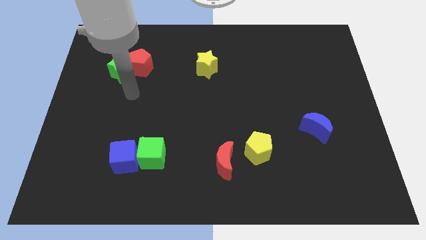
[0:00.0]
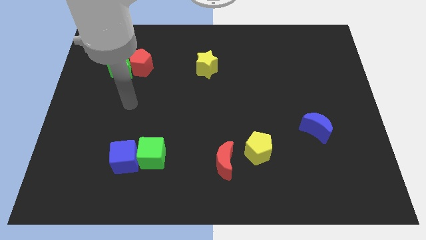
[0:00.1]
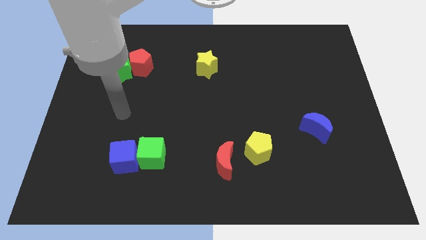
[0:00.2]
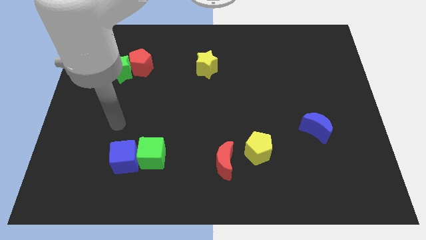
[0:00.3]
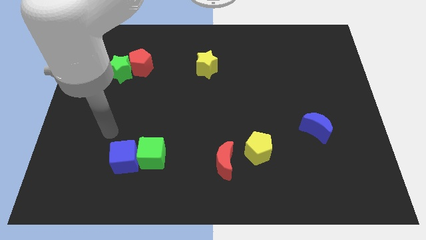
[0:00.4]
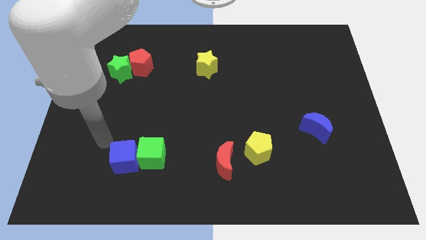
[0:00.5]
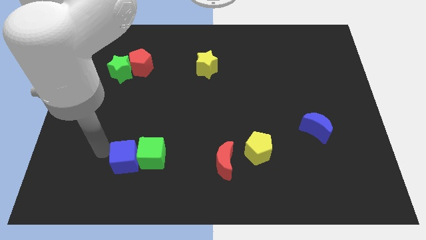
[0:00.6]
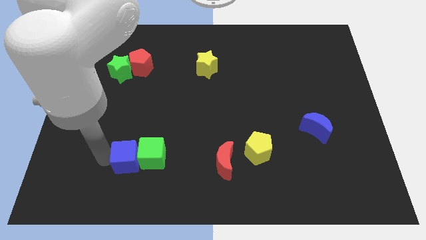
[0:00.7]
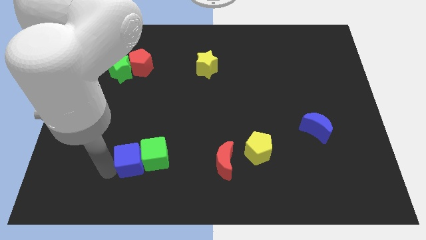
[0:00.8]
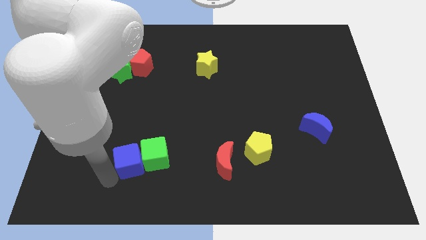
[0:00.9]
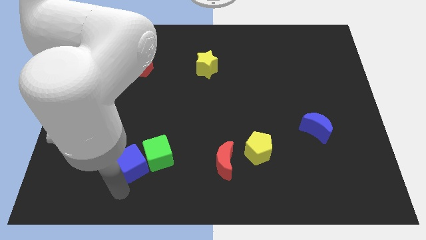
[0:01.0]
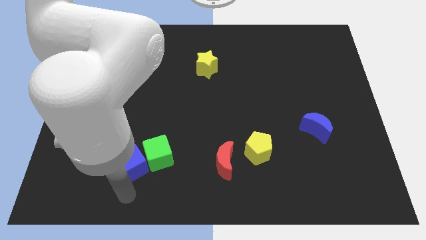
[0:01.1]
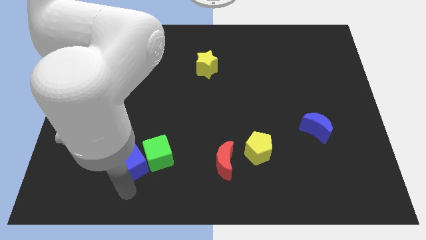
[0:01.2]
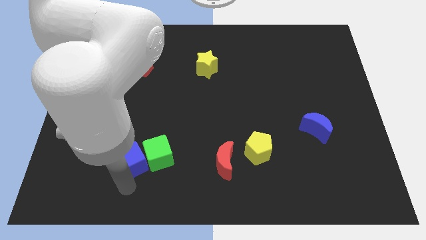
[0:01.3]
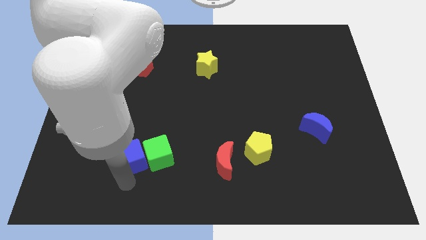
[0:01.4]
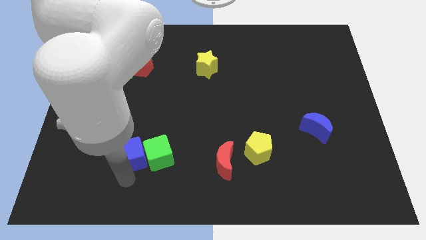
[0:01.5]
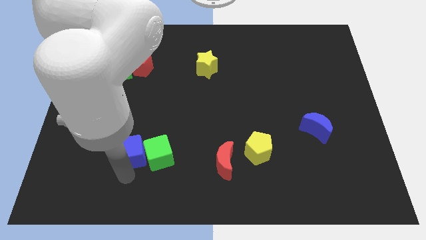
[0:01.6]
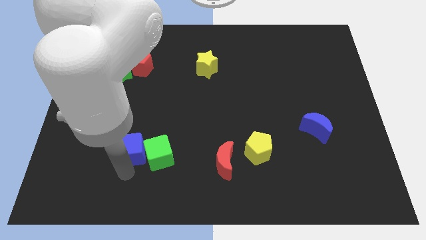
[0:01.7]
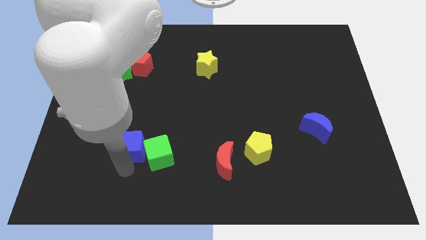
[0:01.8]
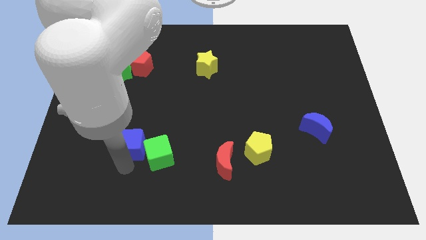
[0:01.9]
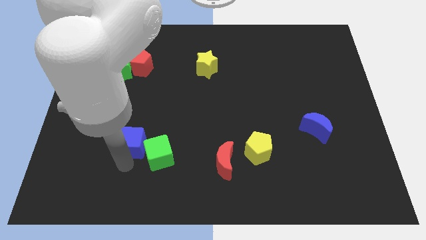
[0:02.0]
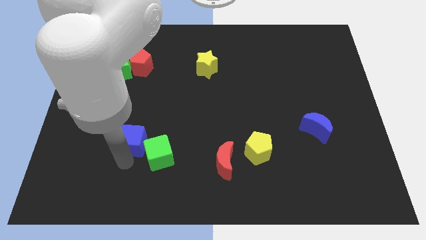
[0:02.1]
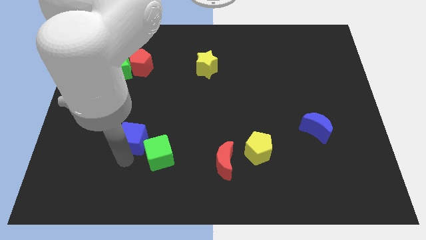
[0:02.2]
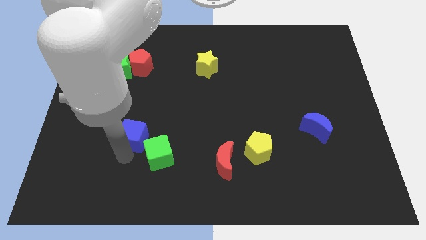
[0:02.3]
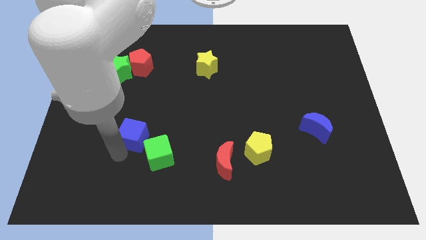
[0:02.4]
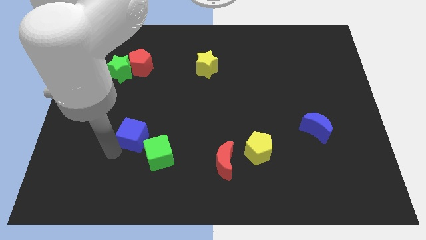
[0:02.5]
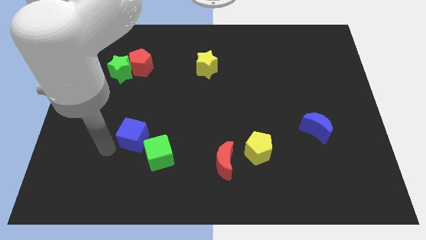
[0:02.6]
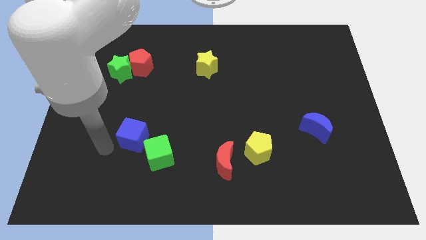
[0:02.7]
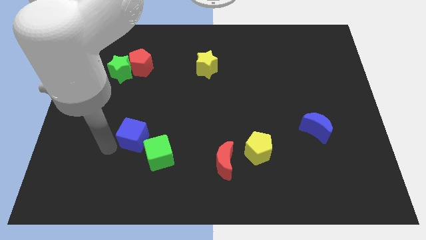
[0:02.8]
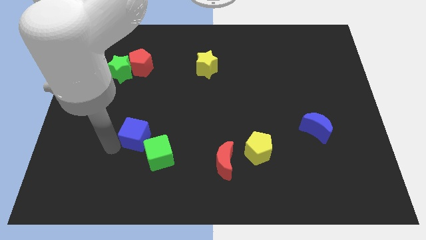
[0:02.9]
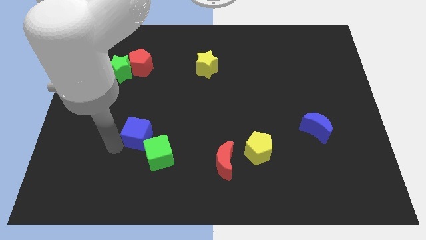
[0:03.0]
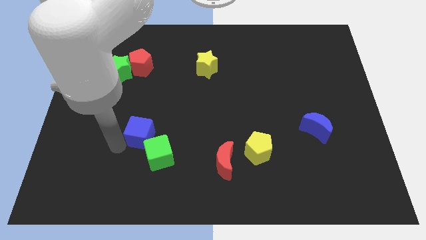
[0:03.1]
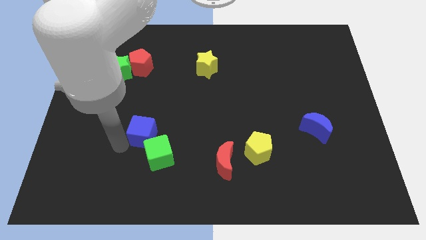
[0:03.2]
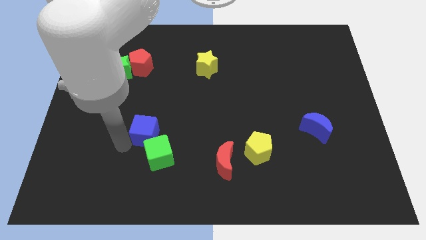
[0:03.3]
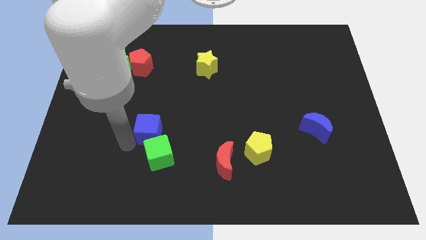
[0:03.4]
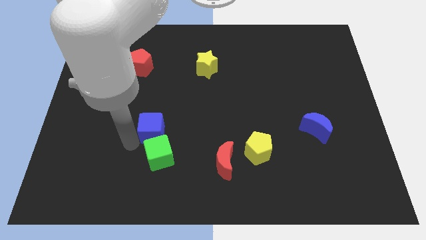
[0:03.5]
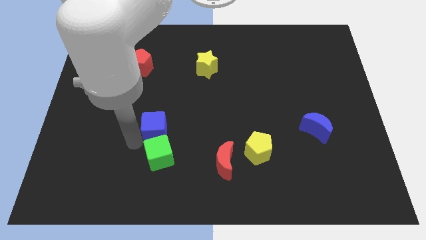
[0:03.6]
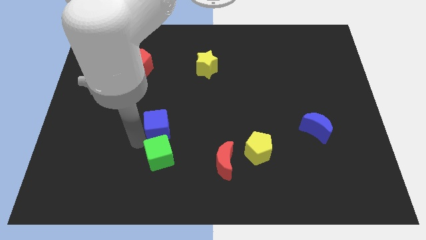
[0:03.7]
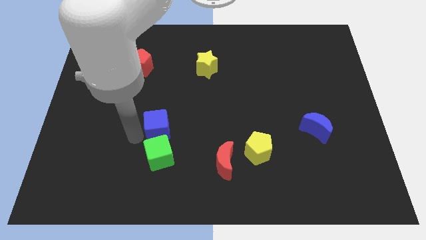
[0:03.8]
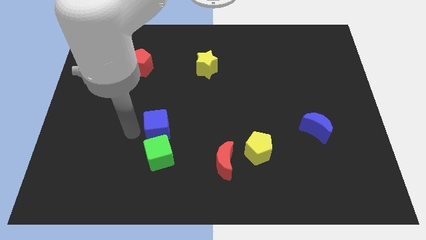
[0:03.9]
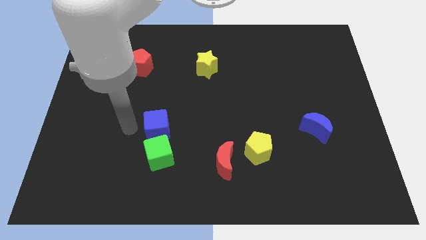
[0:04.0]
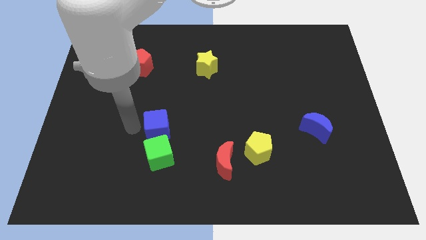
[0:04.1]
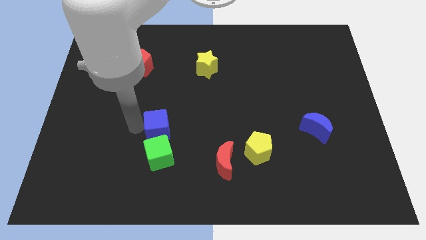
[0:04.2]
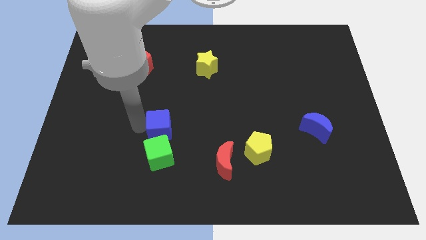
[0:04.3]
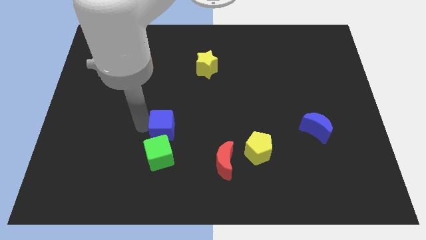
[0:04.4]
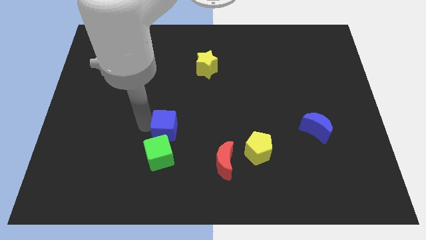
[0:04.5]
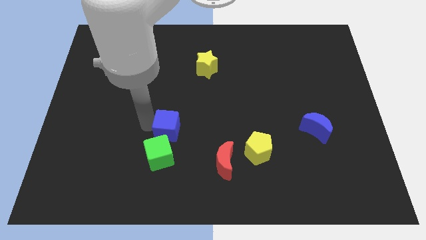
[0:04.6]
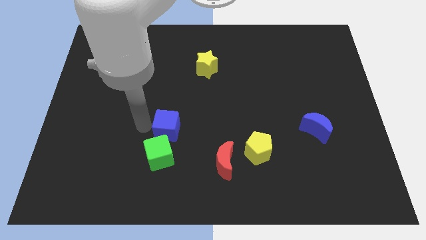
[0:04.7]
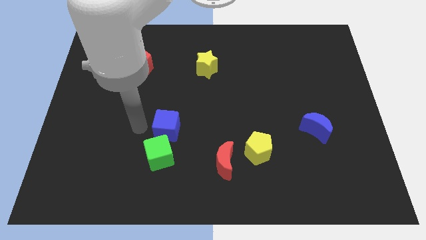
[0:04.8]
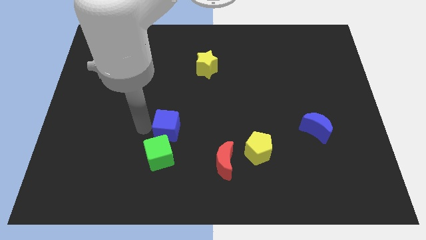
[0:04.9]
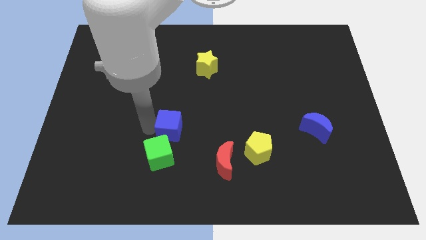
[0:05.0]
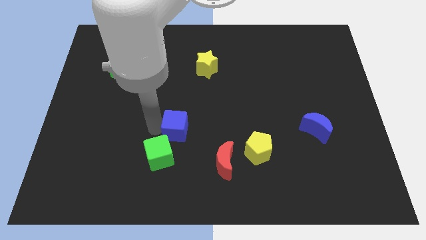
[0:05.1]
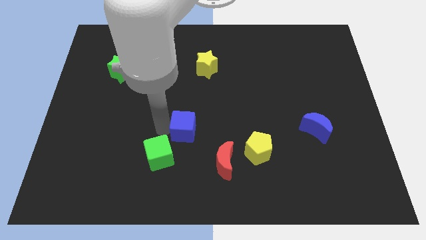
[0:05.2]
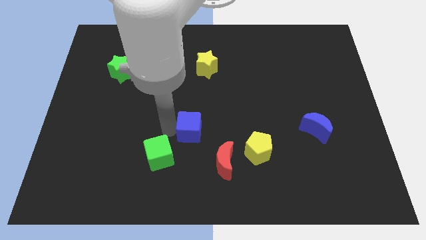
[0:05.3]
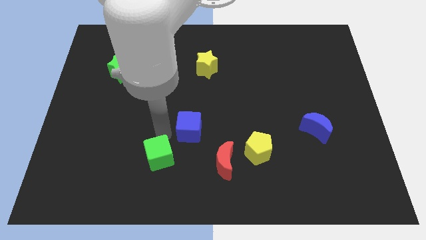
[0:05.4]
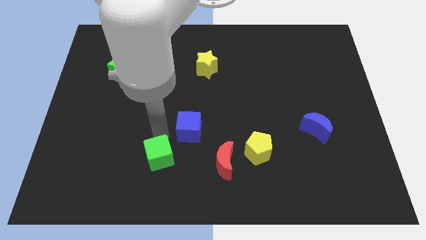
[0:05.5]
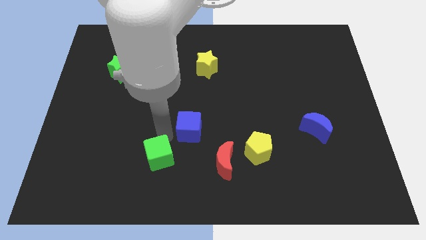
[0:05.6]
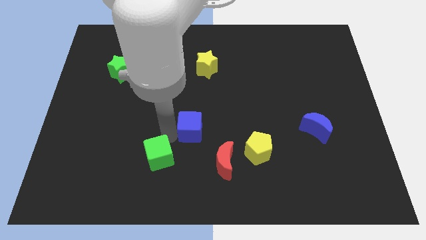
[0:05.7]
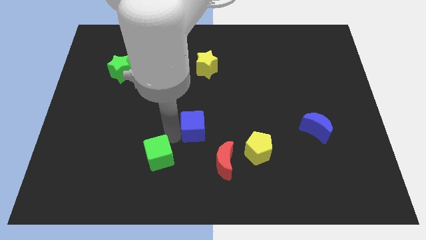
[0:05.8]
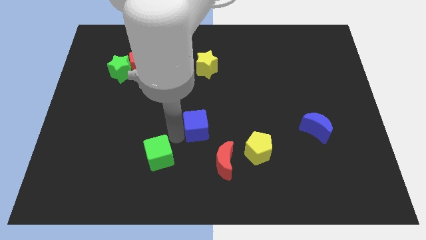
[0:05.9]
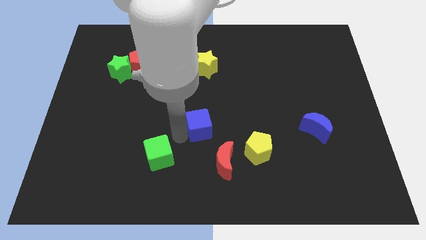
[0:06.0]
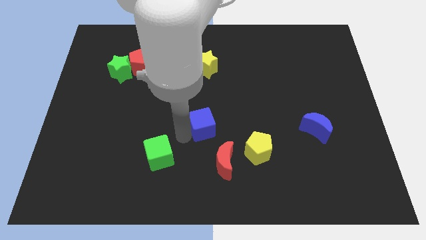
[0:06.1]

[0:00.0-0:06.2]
slide the blue cube to the top of the red moon
